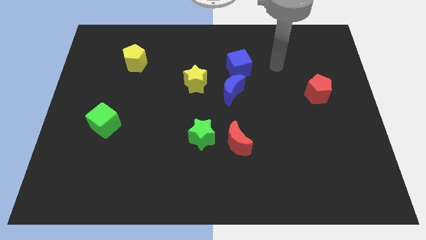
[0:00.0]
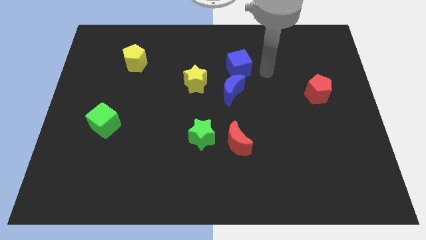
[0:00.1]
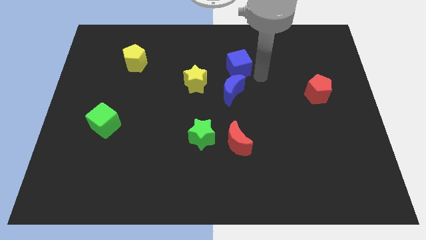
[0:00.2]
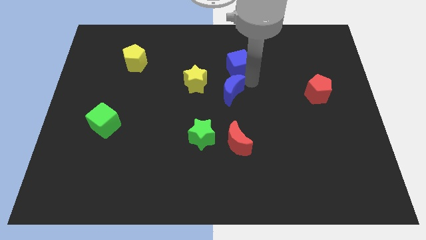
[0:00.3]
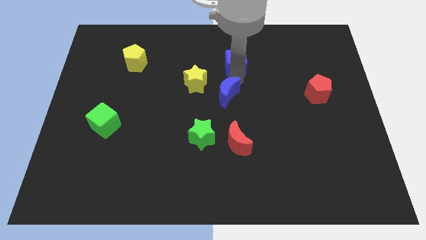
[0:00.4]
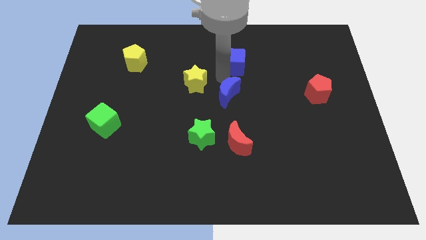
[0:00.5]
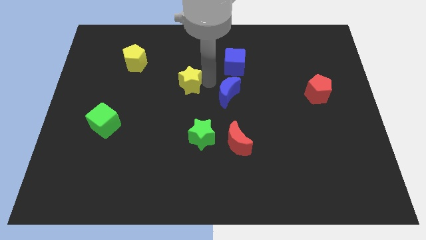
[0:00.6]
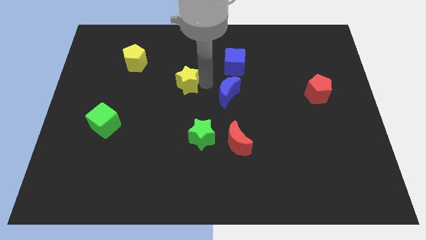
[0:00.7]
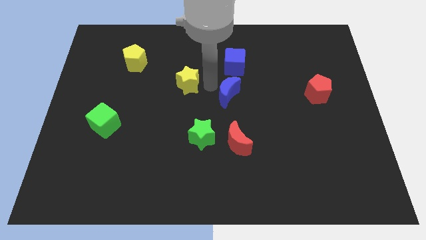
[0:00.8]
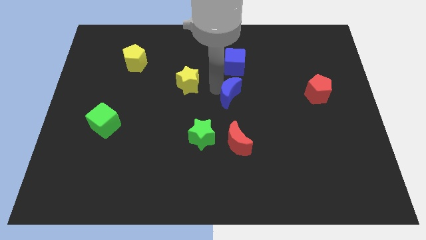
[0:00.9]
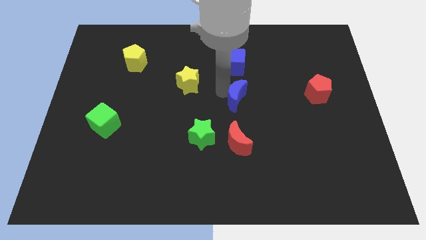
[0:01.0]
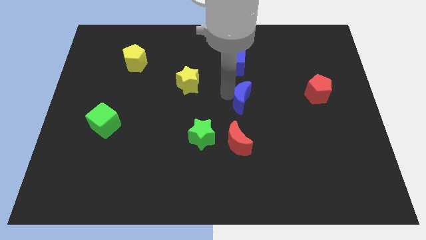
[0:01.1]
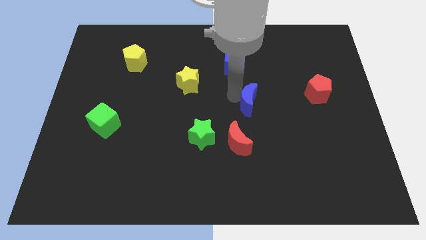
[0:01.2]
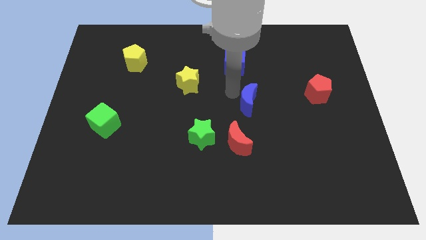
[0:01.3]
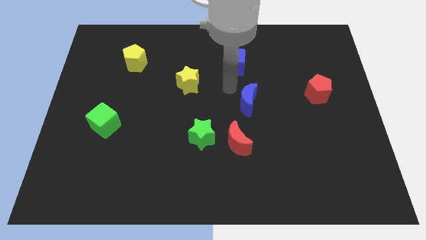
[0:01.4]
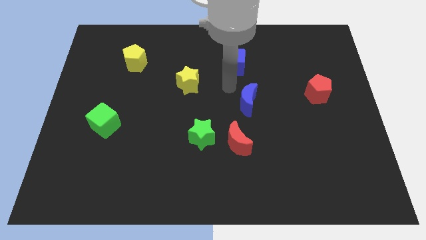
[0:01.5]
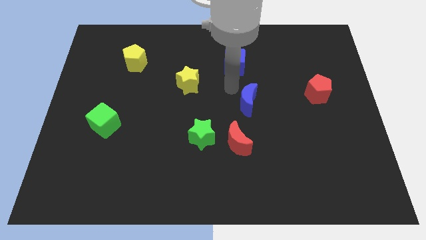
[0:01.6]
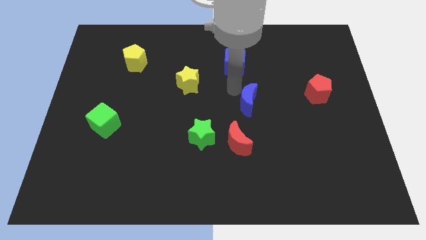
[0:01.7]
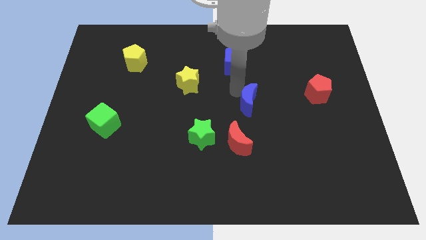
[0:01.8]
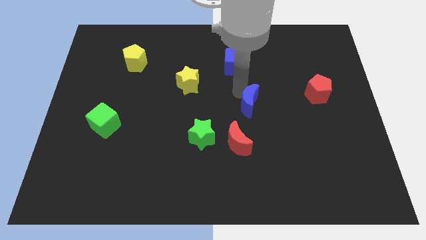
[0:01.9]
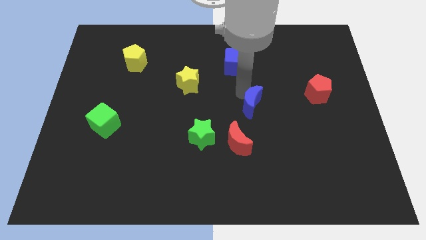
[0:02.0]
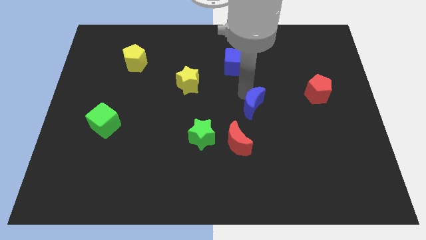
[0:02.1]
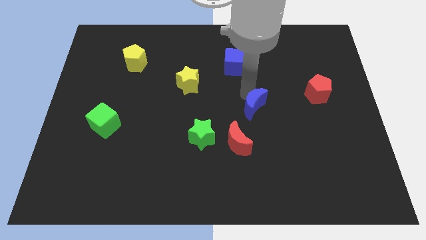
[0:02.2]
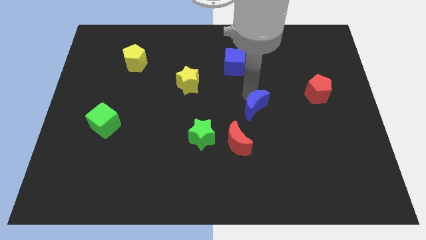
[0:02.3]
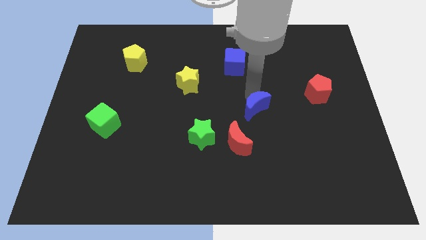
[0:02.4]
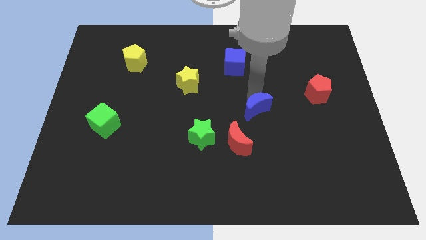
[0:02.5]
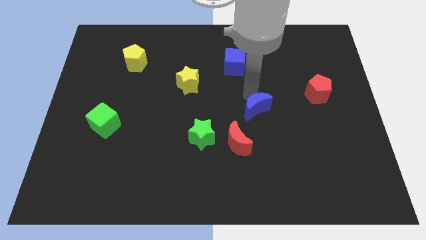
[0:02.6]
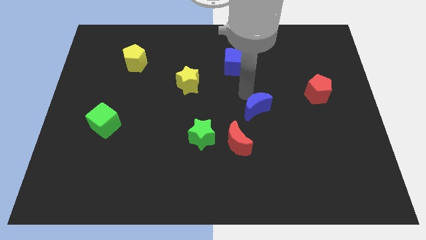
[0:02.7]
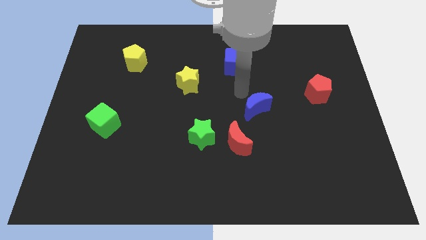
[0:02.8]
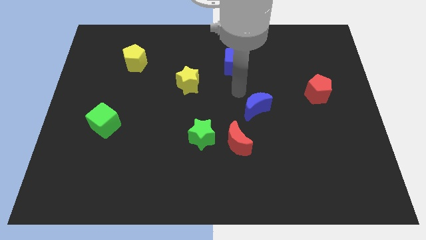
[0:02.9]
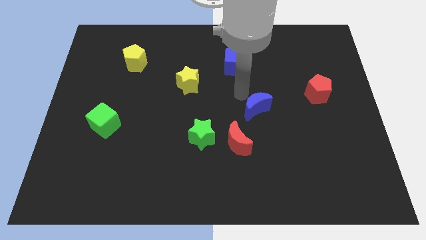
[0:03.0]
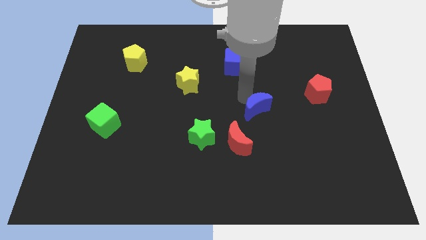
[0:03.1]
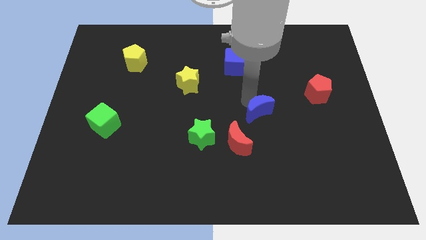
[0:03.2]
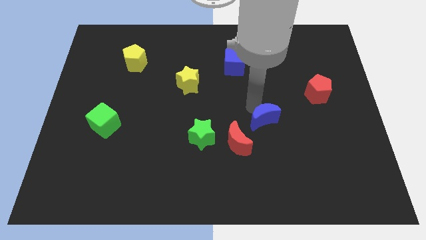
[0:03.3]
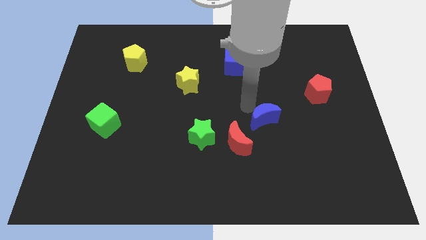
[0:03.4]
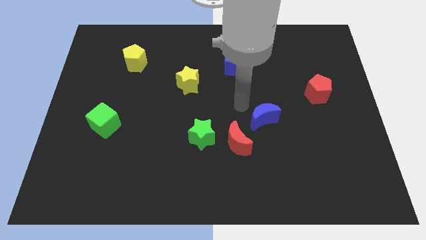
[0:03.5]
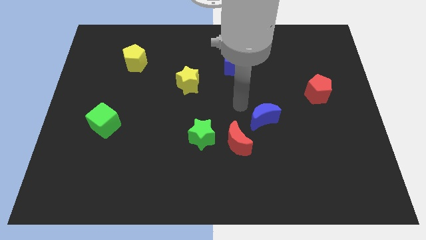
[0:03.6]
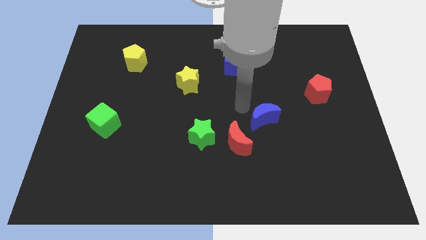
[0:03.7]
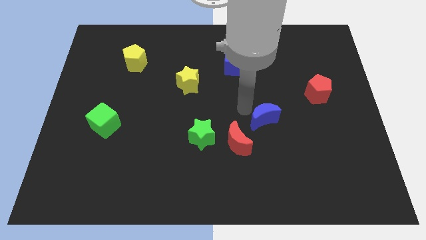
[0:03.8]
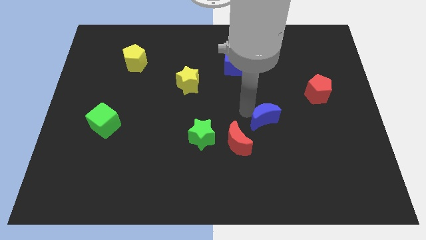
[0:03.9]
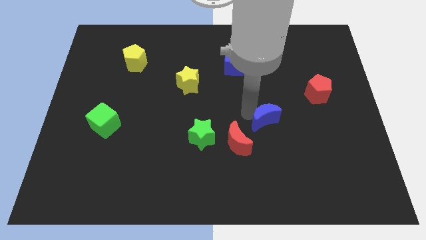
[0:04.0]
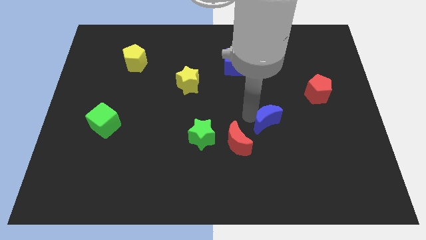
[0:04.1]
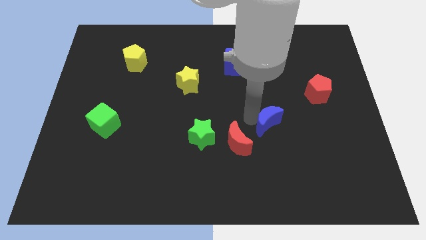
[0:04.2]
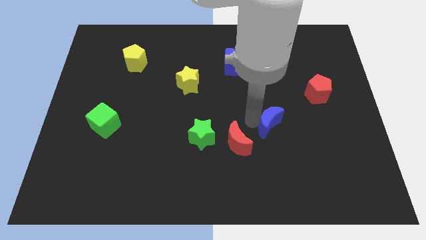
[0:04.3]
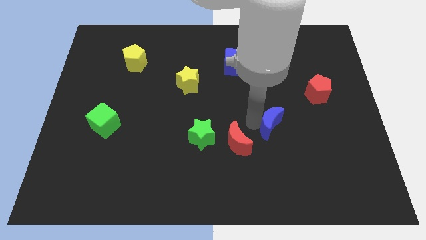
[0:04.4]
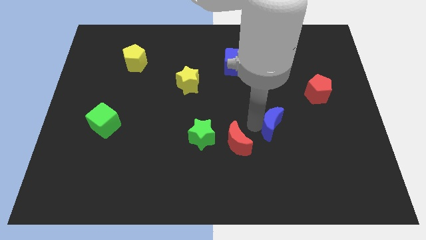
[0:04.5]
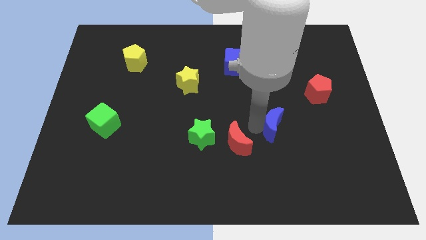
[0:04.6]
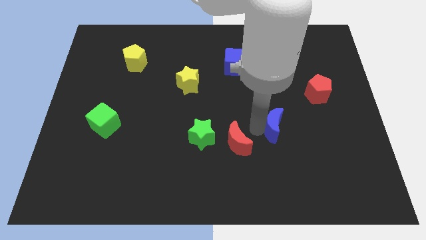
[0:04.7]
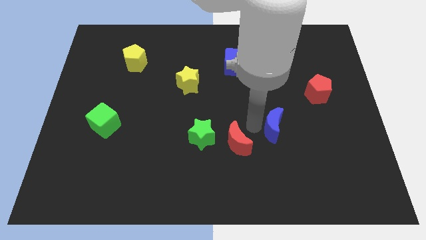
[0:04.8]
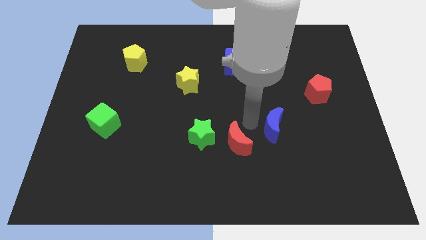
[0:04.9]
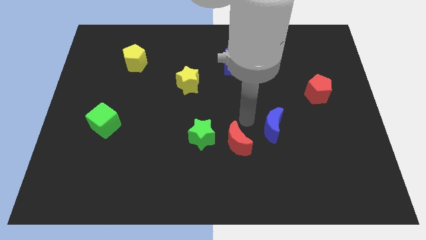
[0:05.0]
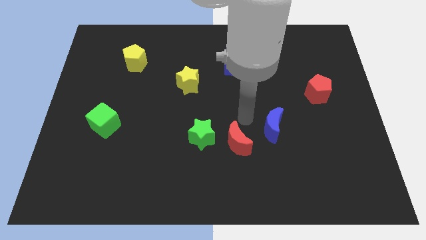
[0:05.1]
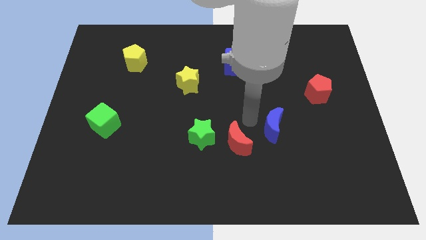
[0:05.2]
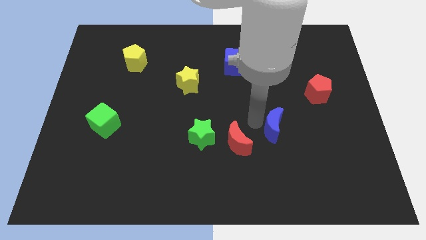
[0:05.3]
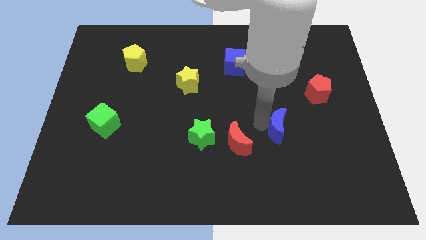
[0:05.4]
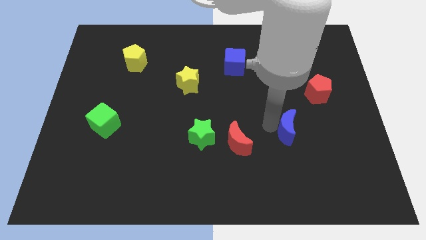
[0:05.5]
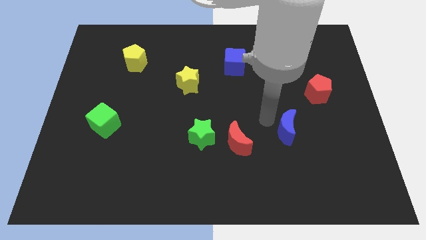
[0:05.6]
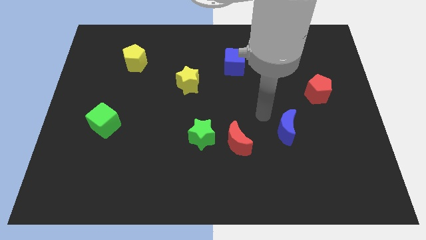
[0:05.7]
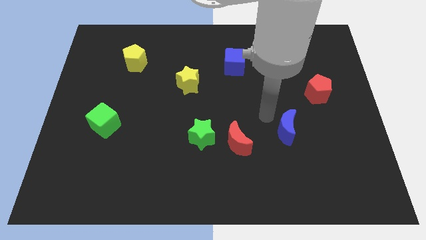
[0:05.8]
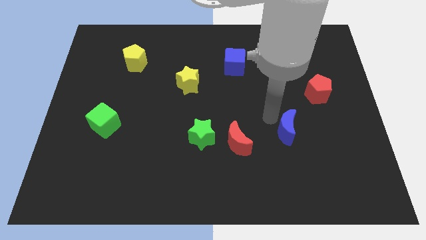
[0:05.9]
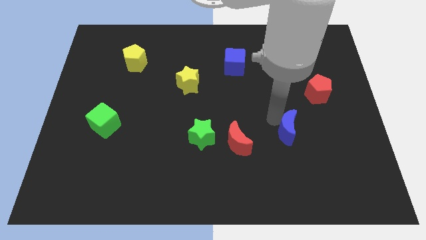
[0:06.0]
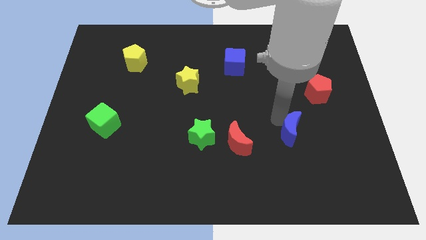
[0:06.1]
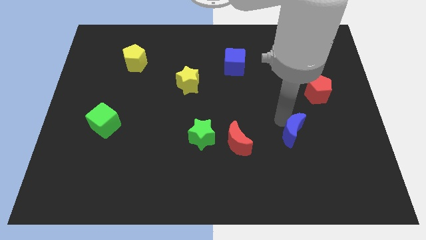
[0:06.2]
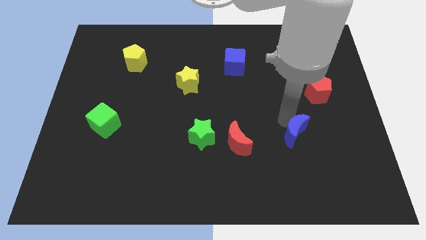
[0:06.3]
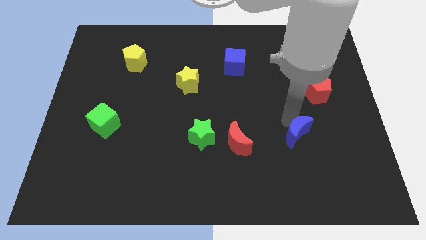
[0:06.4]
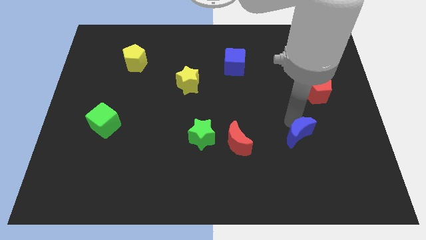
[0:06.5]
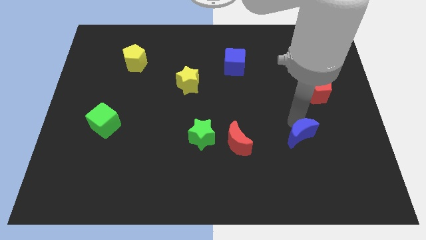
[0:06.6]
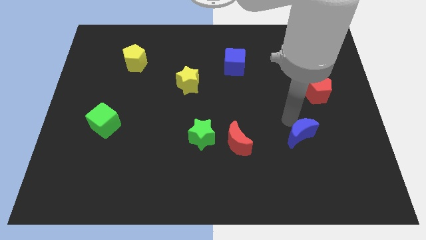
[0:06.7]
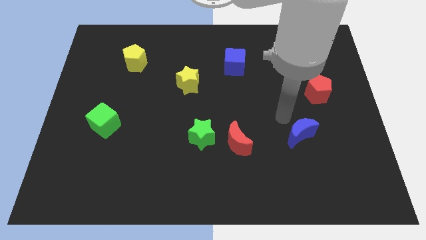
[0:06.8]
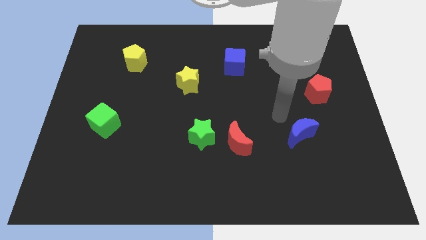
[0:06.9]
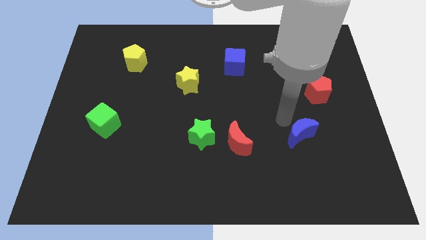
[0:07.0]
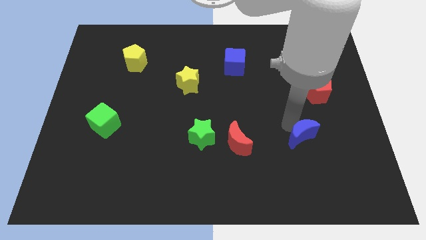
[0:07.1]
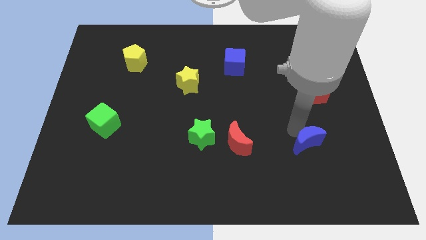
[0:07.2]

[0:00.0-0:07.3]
push the blue moon diagonally down and right

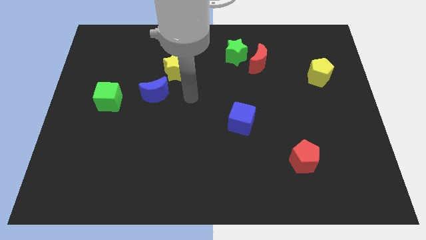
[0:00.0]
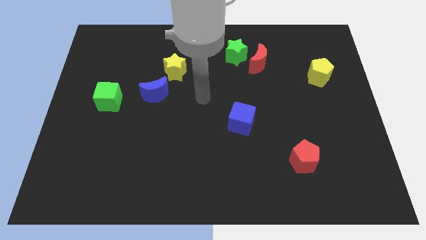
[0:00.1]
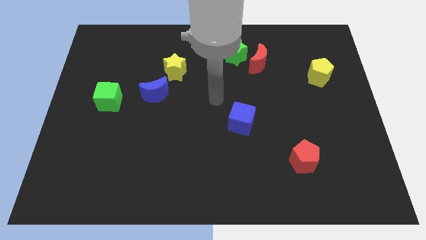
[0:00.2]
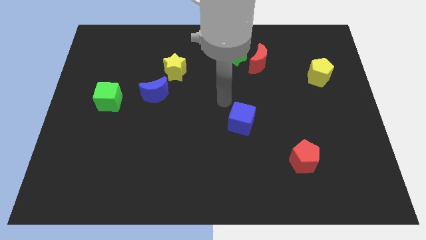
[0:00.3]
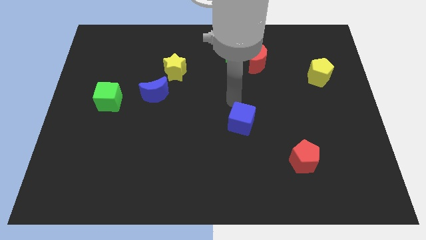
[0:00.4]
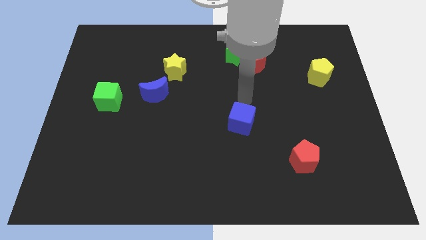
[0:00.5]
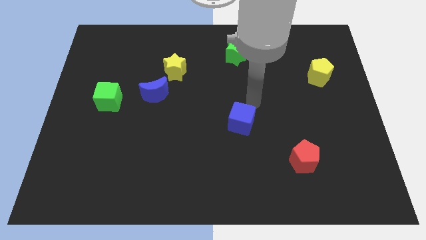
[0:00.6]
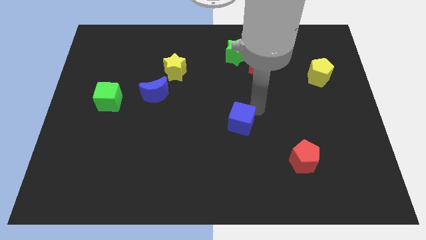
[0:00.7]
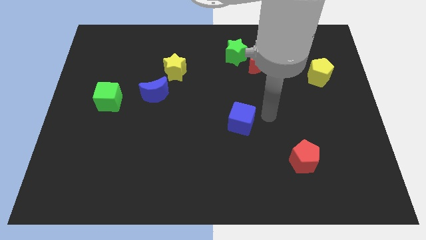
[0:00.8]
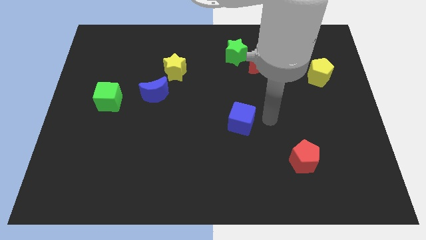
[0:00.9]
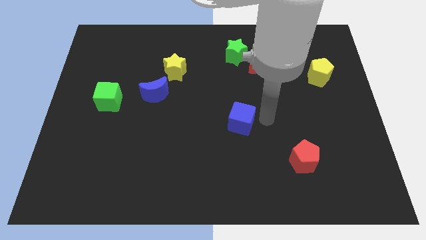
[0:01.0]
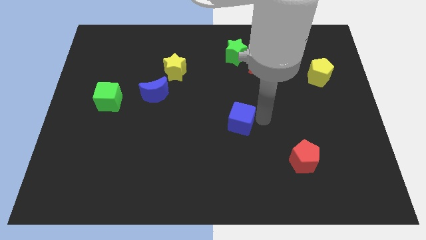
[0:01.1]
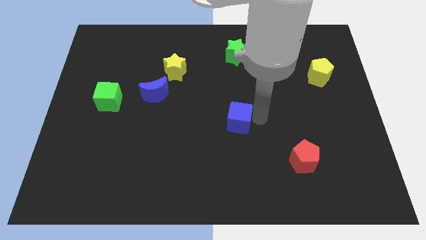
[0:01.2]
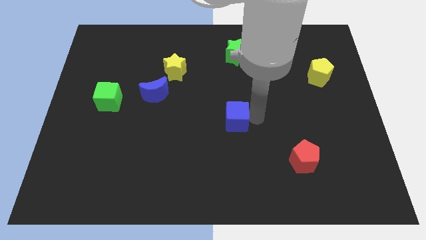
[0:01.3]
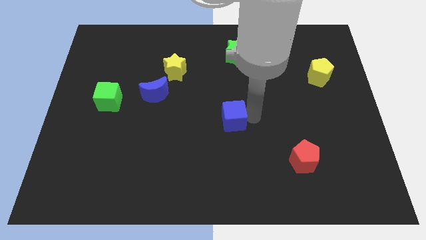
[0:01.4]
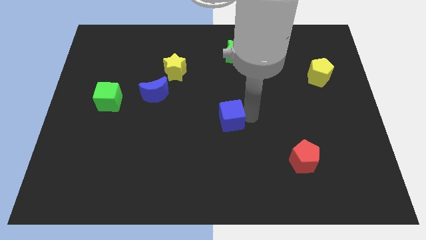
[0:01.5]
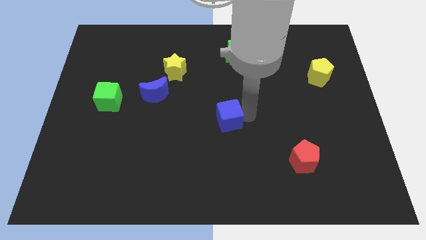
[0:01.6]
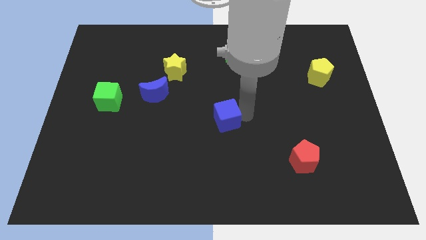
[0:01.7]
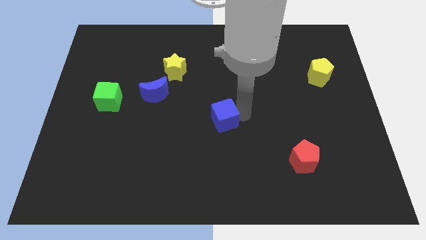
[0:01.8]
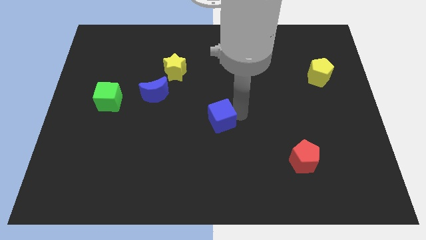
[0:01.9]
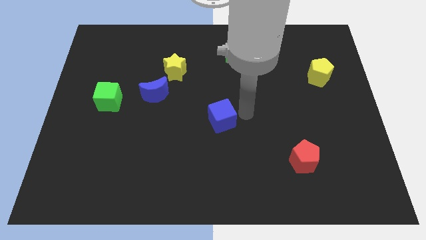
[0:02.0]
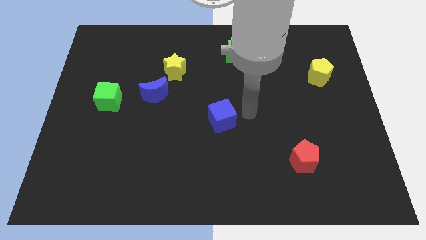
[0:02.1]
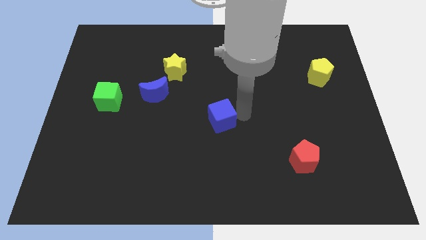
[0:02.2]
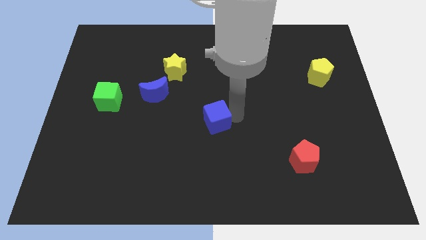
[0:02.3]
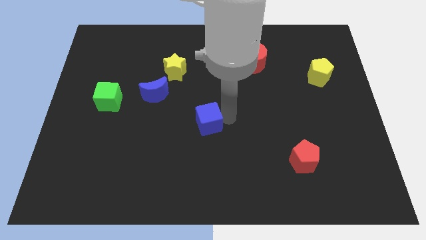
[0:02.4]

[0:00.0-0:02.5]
push the blue cube slightly left
